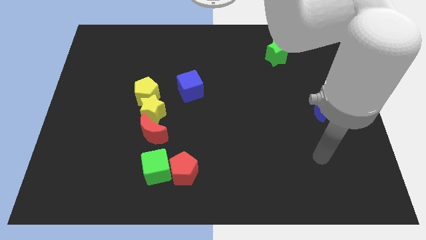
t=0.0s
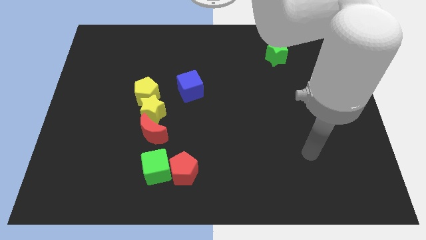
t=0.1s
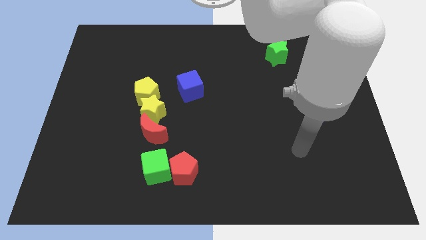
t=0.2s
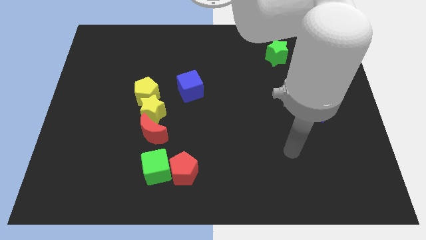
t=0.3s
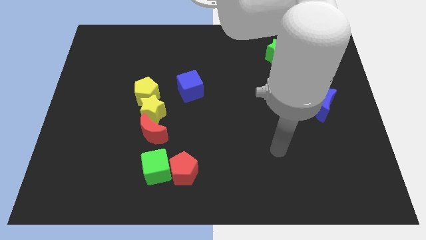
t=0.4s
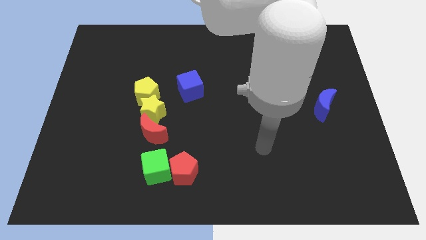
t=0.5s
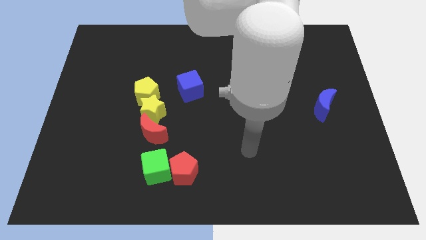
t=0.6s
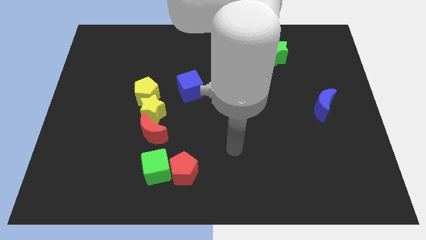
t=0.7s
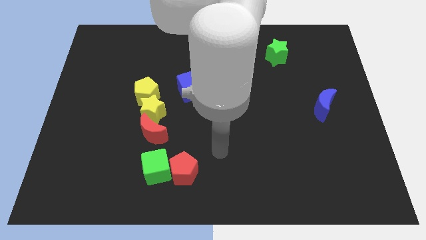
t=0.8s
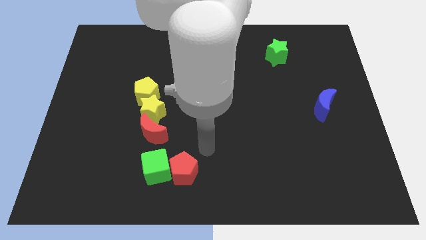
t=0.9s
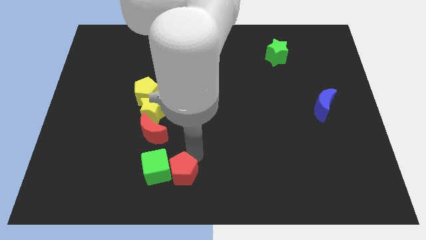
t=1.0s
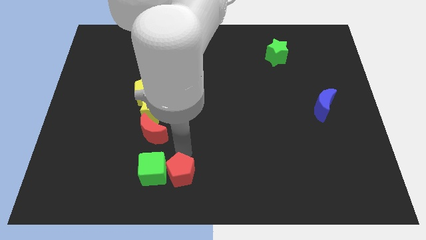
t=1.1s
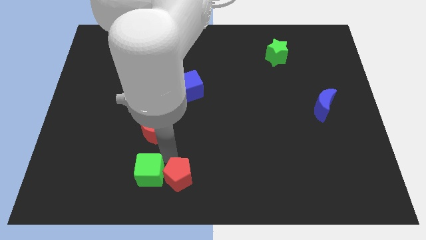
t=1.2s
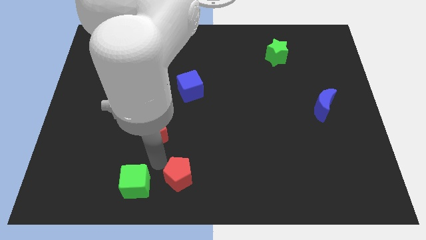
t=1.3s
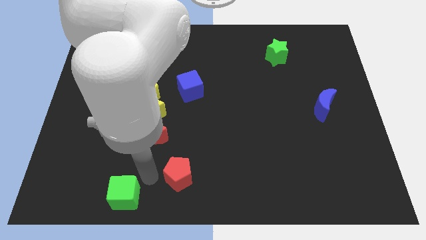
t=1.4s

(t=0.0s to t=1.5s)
separate the red pentagon from the green cube

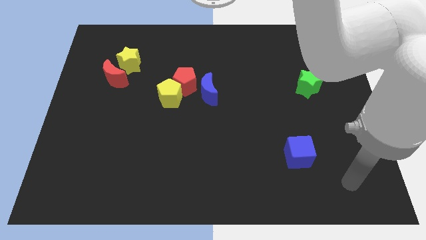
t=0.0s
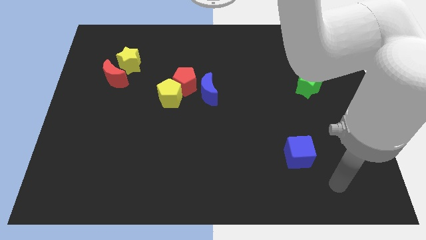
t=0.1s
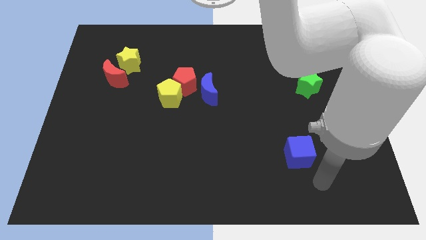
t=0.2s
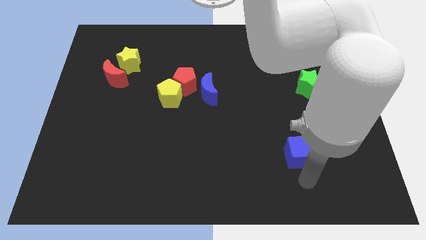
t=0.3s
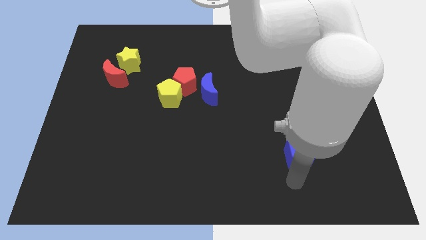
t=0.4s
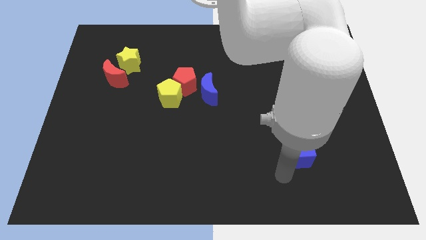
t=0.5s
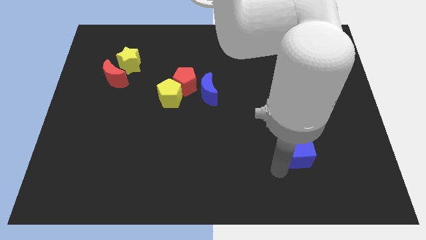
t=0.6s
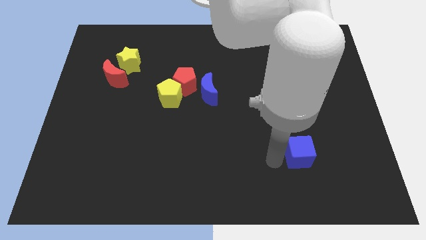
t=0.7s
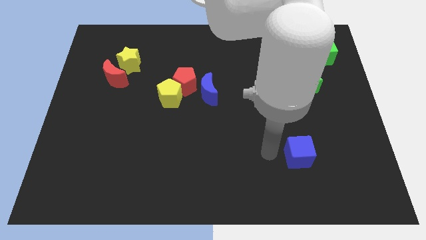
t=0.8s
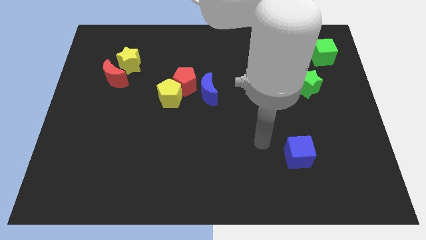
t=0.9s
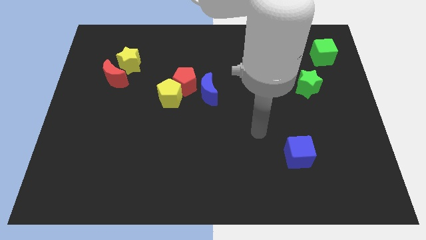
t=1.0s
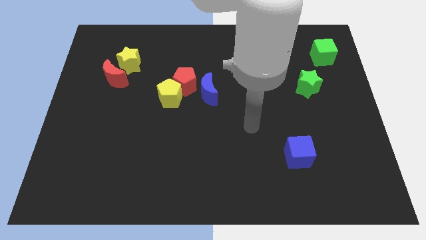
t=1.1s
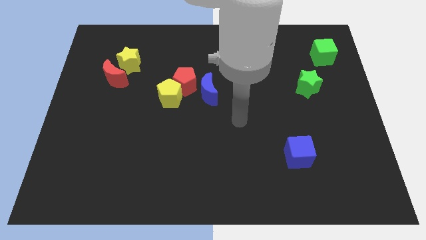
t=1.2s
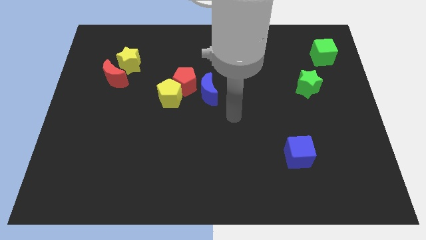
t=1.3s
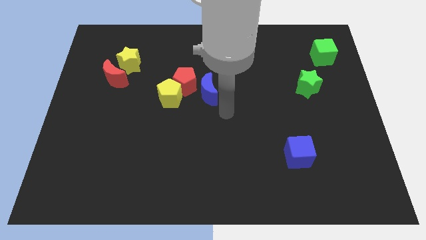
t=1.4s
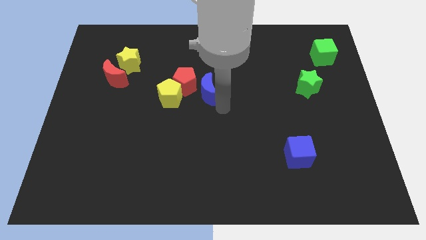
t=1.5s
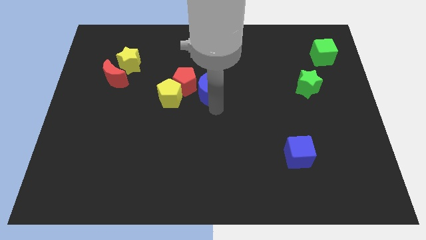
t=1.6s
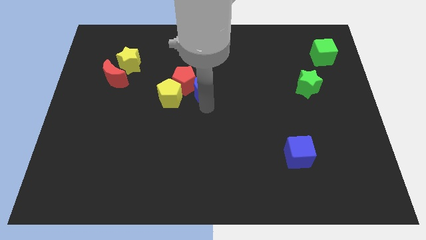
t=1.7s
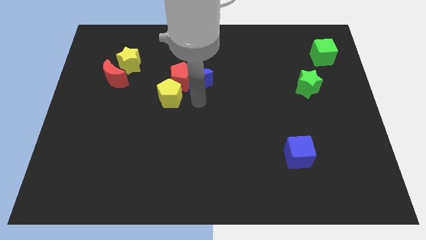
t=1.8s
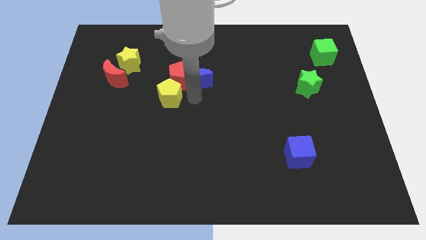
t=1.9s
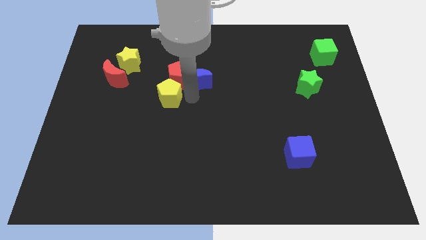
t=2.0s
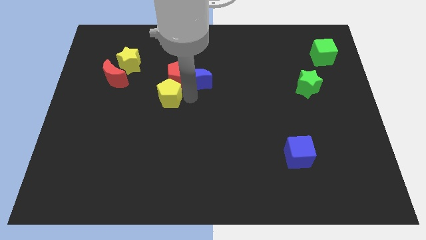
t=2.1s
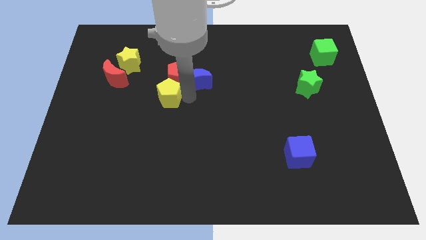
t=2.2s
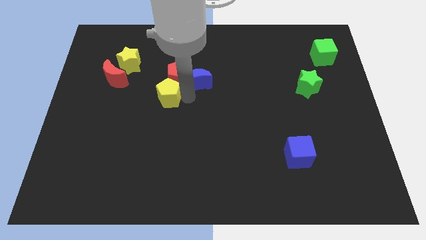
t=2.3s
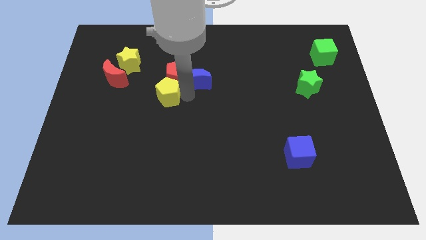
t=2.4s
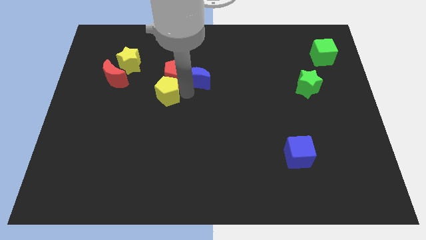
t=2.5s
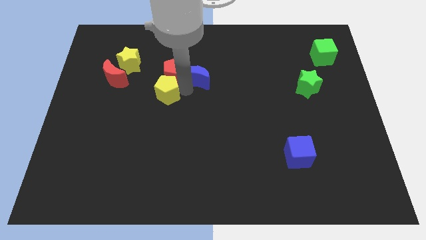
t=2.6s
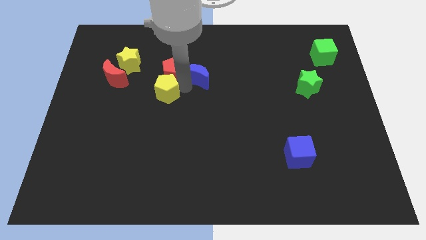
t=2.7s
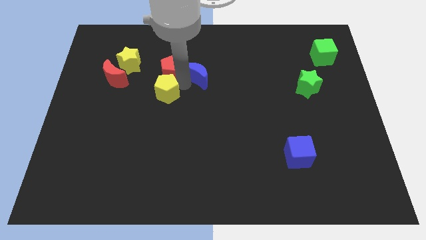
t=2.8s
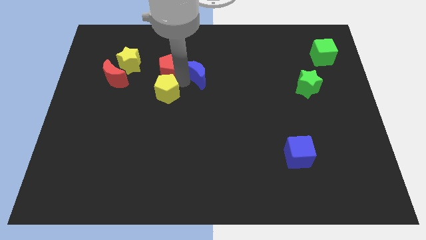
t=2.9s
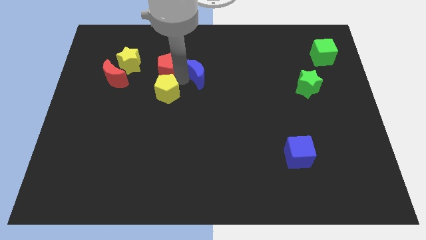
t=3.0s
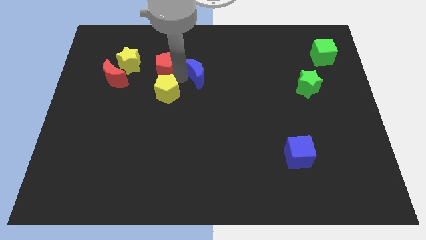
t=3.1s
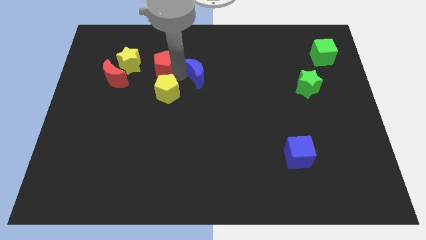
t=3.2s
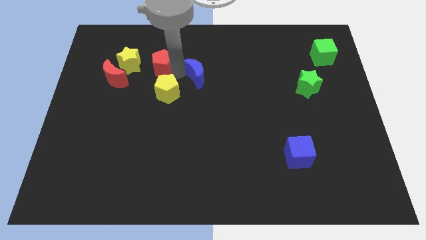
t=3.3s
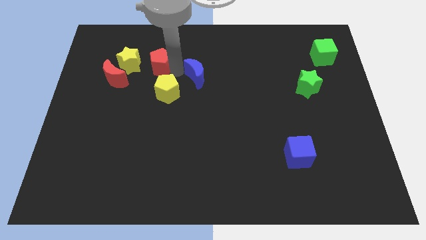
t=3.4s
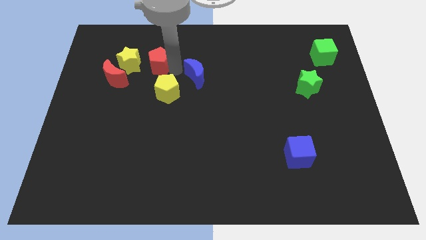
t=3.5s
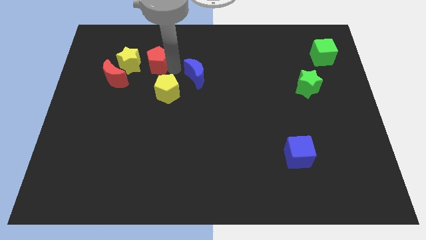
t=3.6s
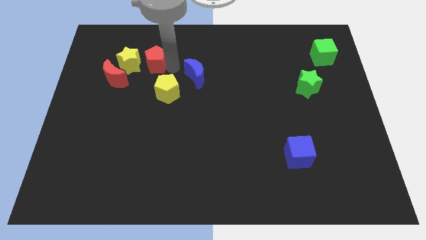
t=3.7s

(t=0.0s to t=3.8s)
pull the red pentagon apart from the yellow pentagon and blue moon

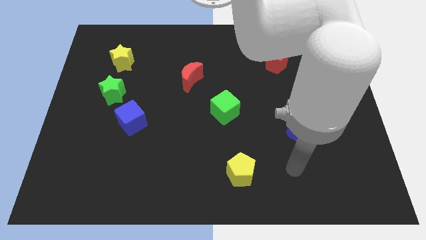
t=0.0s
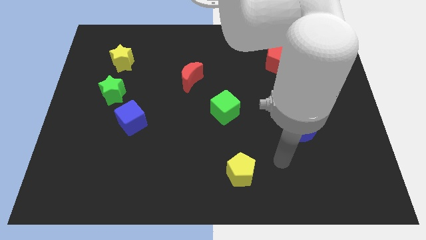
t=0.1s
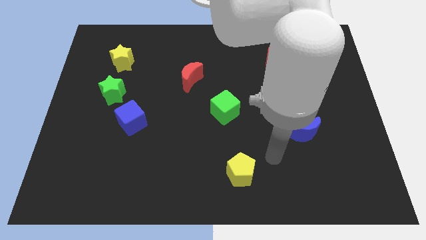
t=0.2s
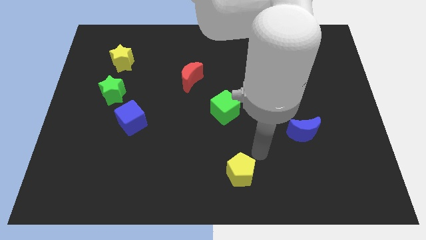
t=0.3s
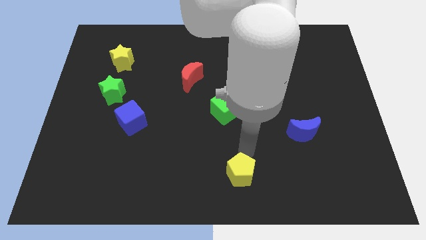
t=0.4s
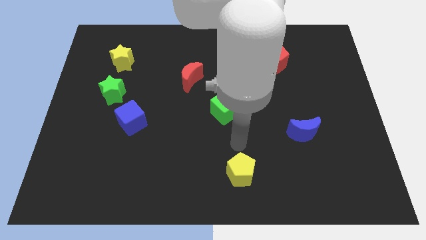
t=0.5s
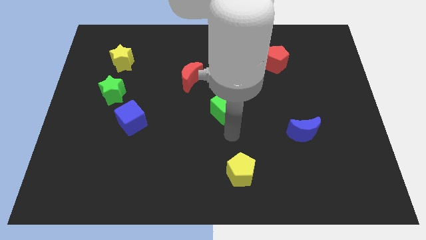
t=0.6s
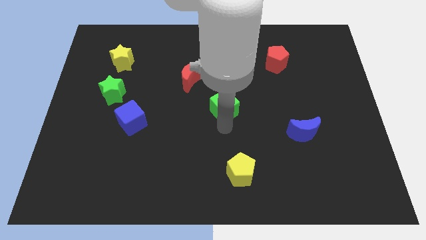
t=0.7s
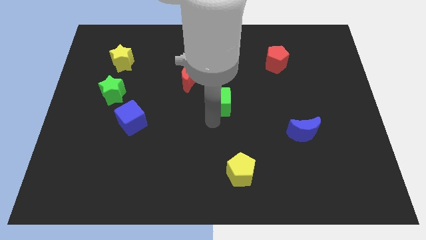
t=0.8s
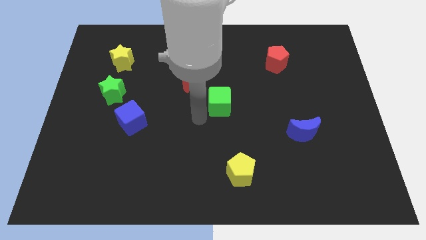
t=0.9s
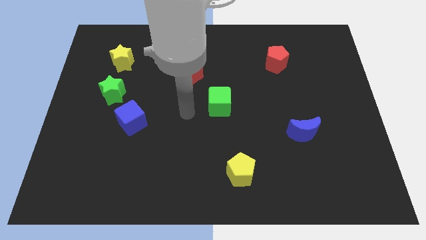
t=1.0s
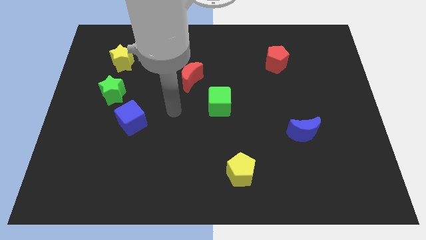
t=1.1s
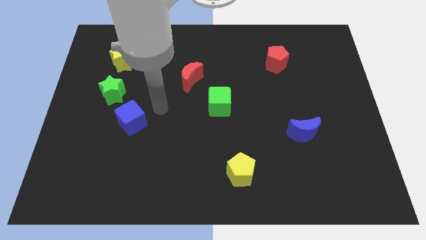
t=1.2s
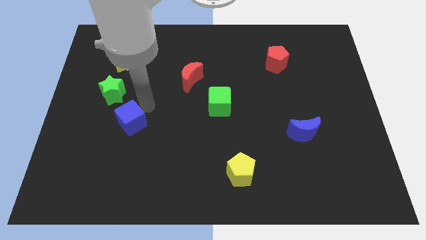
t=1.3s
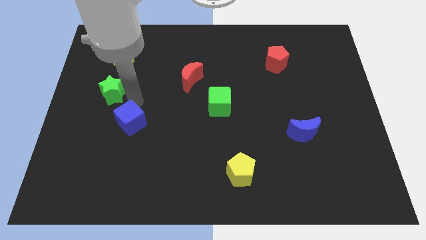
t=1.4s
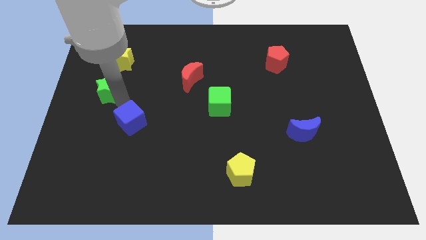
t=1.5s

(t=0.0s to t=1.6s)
pull the blue cube apart from the green star

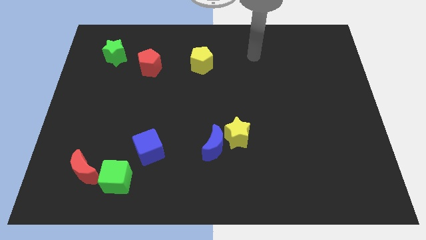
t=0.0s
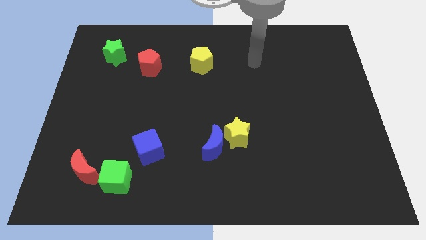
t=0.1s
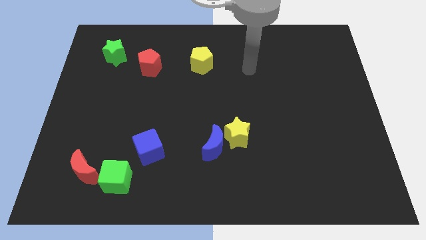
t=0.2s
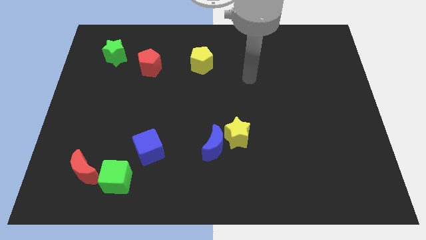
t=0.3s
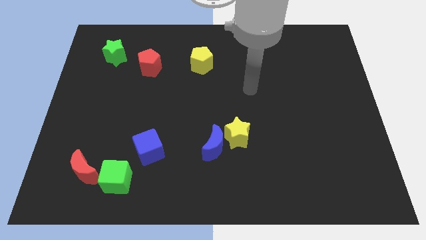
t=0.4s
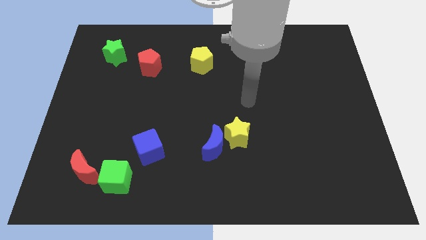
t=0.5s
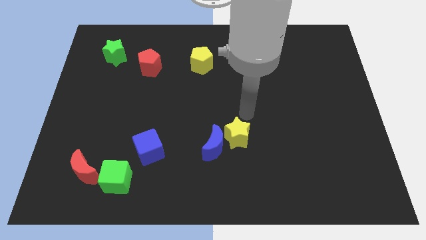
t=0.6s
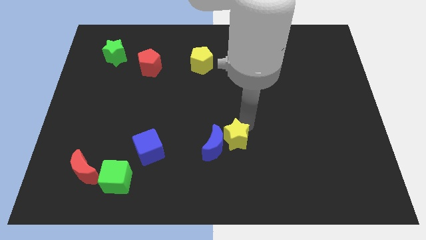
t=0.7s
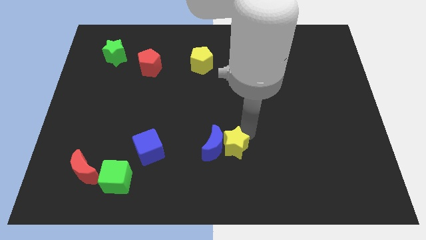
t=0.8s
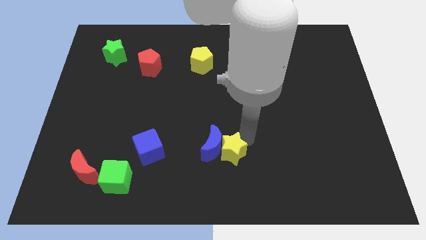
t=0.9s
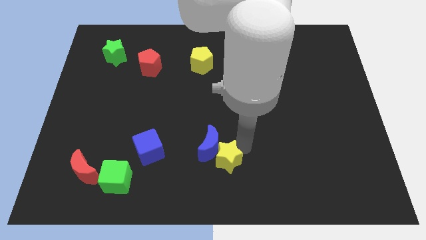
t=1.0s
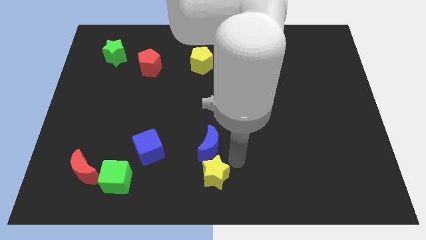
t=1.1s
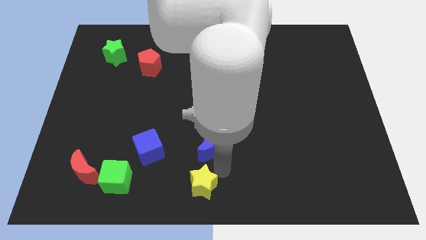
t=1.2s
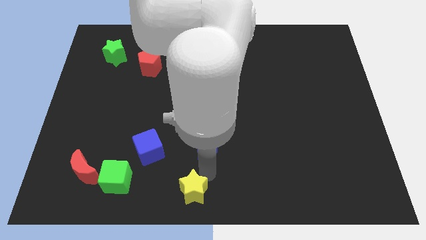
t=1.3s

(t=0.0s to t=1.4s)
move the blue moon away from the yellow star

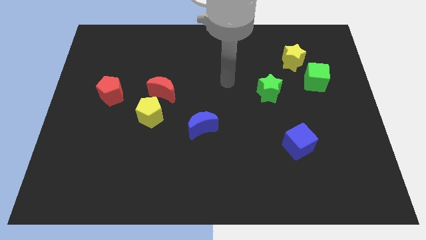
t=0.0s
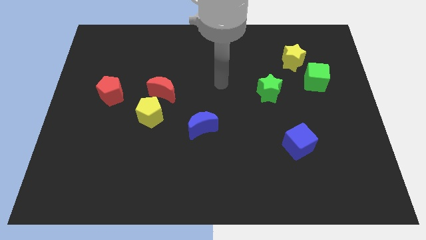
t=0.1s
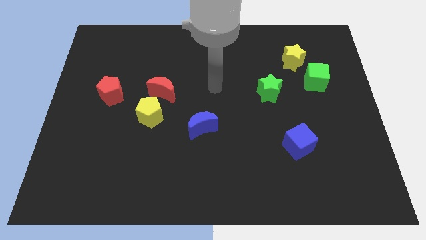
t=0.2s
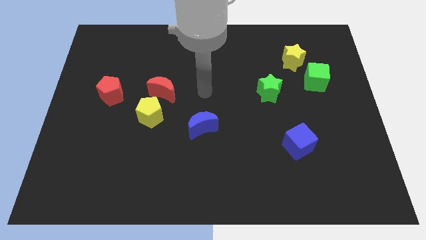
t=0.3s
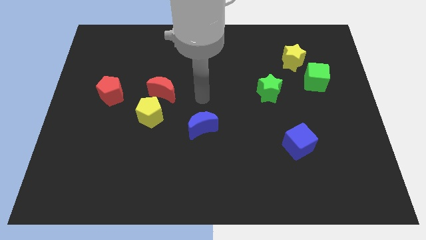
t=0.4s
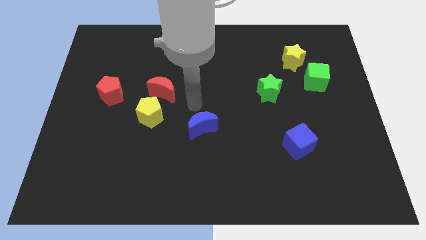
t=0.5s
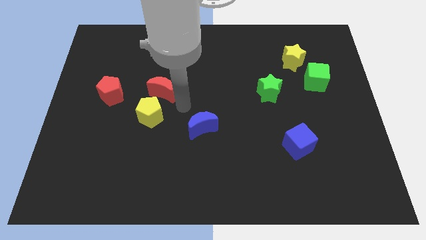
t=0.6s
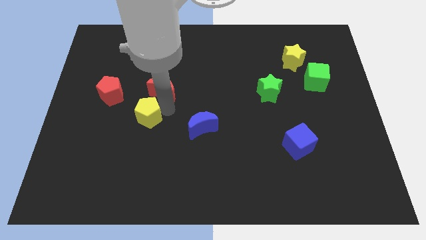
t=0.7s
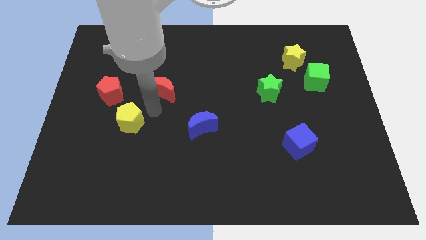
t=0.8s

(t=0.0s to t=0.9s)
move the red moon away from the yellow pentagon
